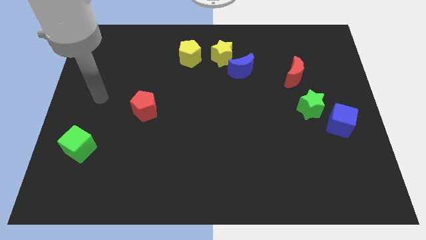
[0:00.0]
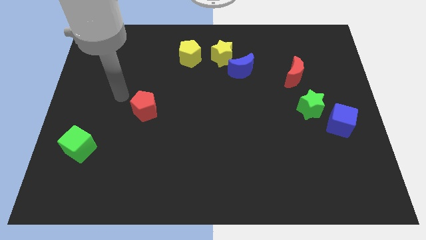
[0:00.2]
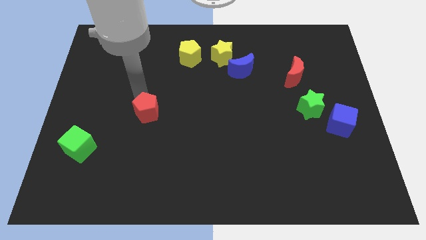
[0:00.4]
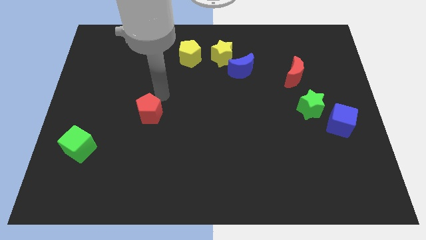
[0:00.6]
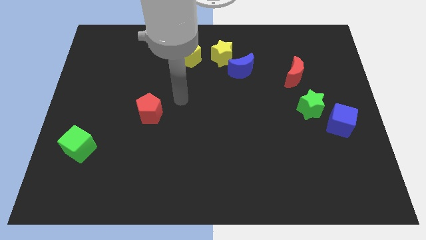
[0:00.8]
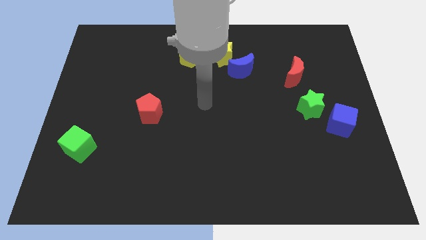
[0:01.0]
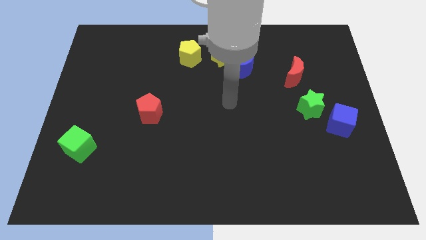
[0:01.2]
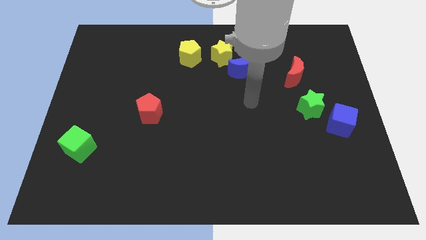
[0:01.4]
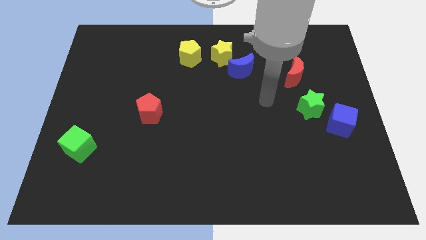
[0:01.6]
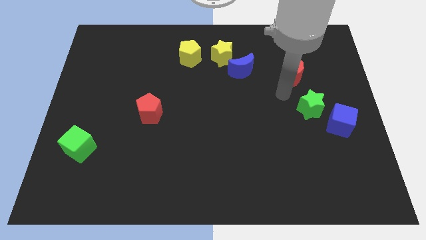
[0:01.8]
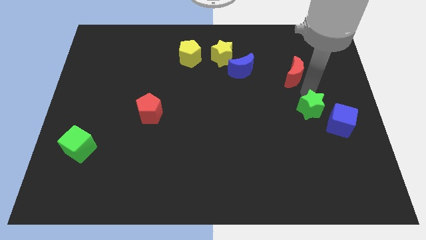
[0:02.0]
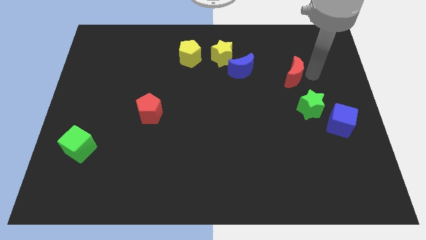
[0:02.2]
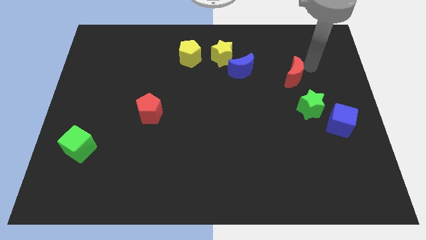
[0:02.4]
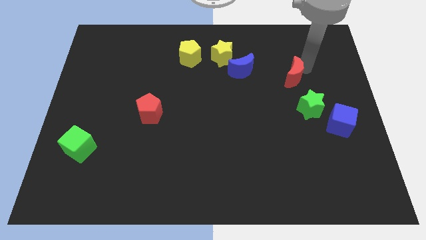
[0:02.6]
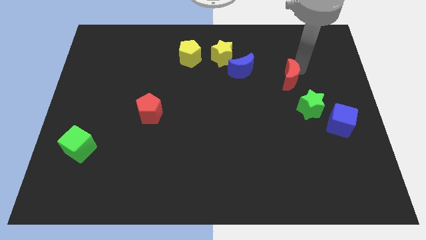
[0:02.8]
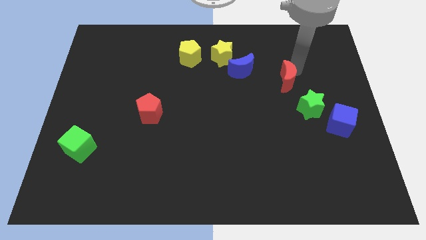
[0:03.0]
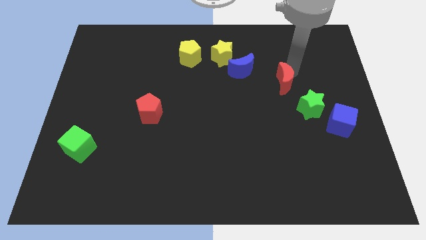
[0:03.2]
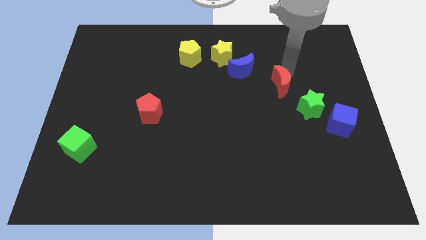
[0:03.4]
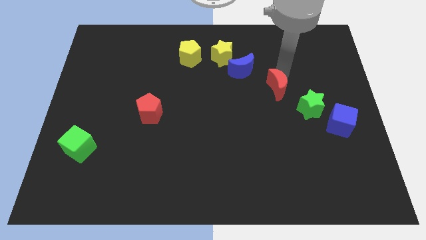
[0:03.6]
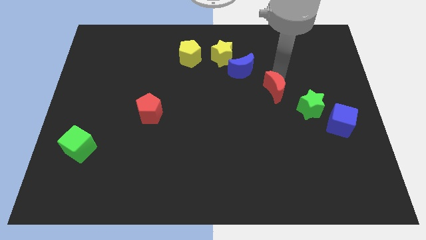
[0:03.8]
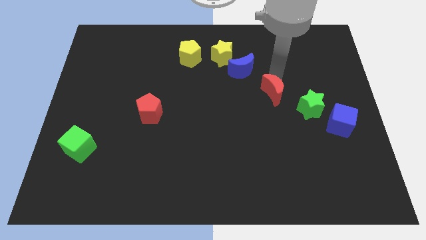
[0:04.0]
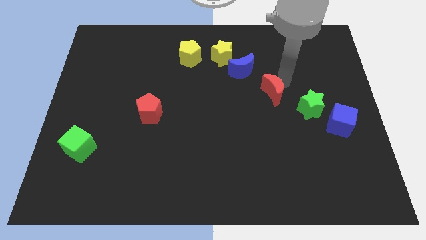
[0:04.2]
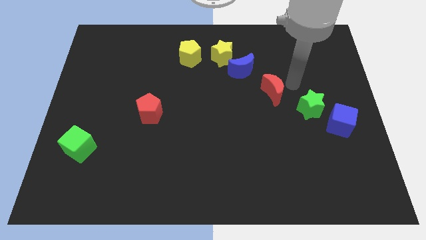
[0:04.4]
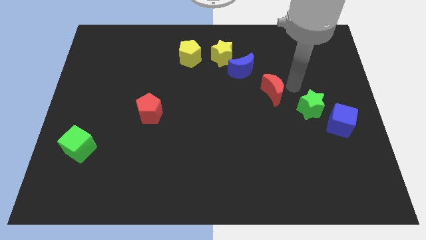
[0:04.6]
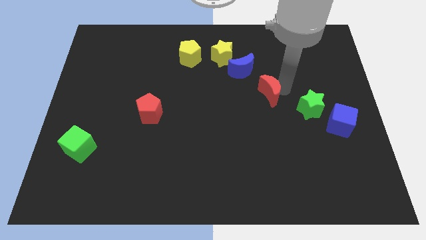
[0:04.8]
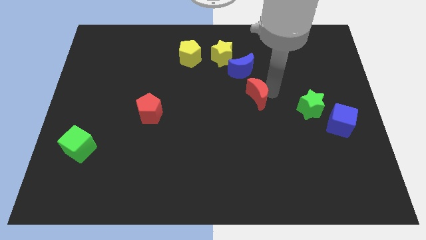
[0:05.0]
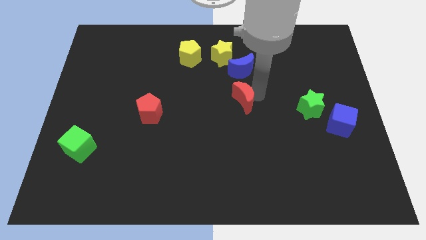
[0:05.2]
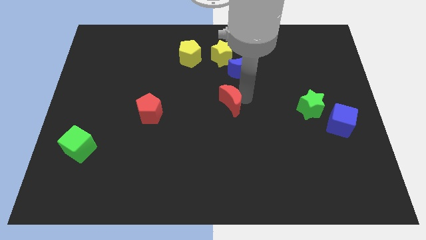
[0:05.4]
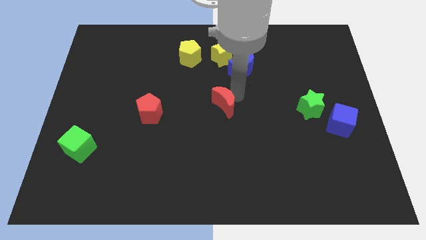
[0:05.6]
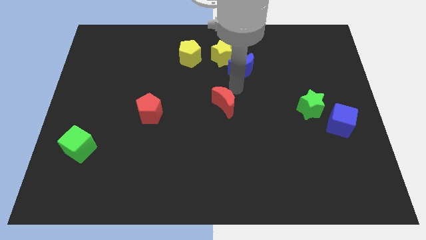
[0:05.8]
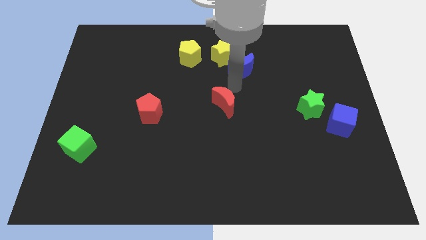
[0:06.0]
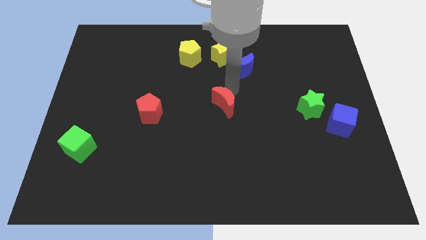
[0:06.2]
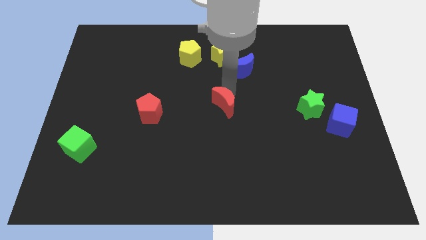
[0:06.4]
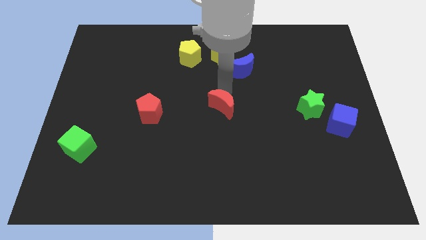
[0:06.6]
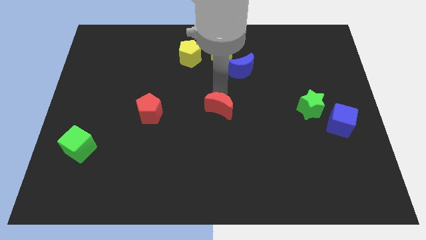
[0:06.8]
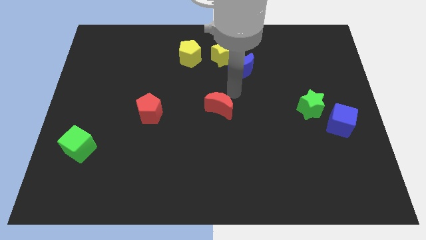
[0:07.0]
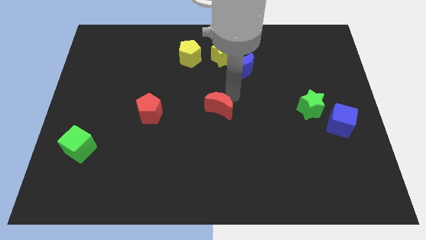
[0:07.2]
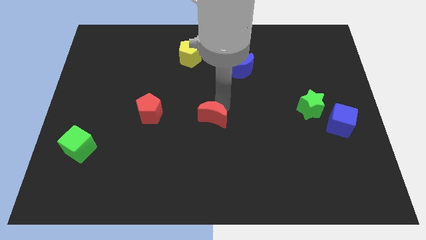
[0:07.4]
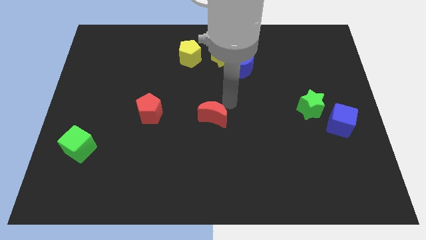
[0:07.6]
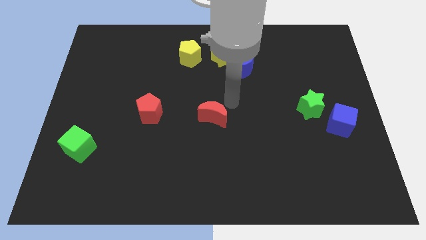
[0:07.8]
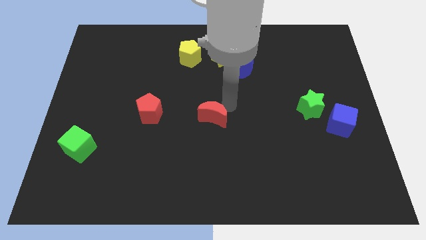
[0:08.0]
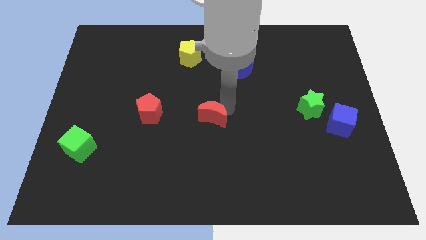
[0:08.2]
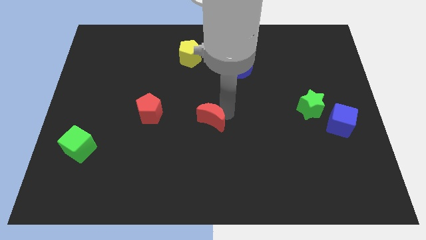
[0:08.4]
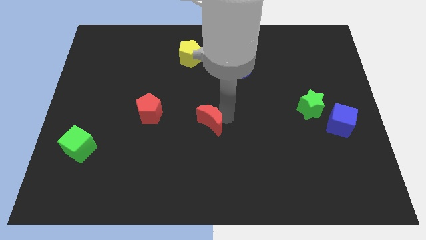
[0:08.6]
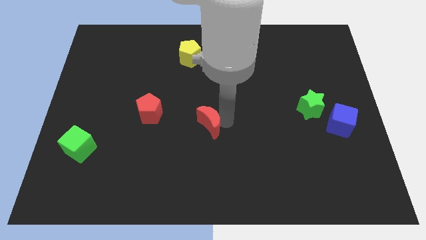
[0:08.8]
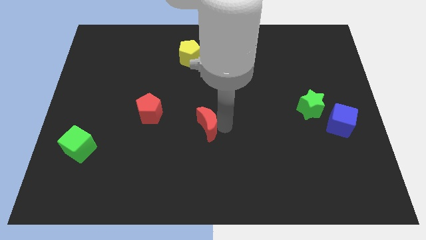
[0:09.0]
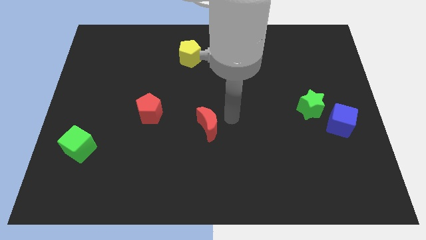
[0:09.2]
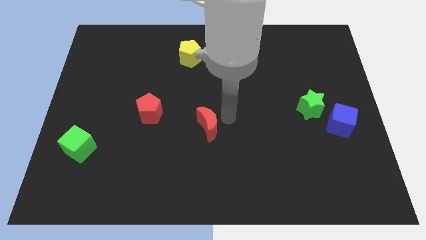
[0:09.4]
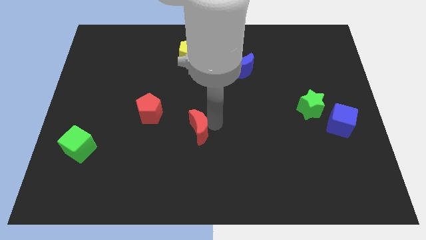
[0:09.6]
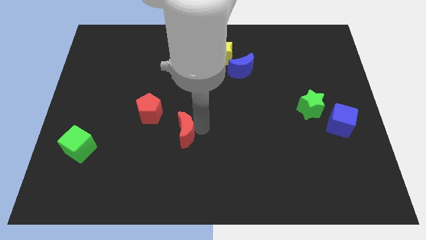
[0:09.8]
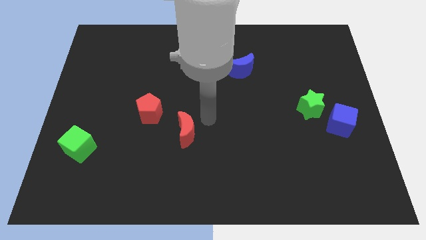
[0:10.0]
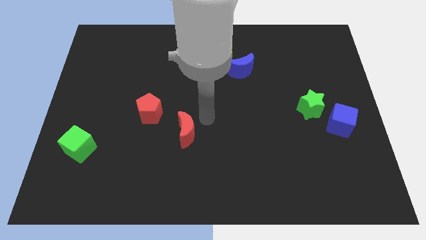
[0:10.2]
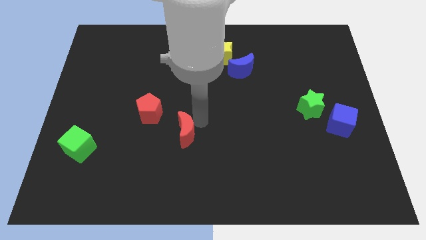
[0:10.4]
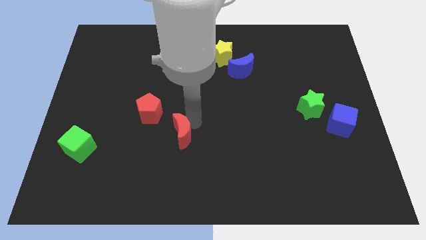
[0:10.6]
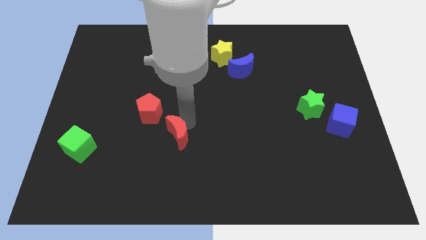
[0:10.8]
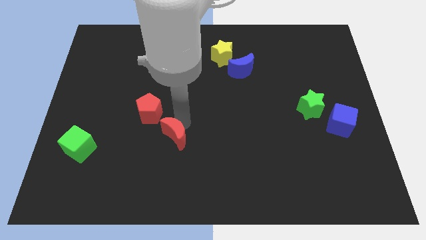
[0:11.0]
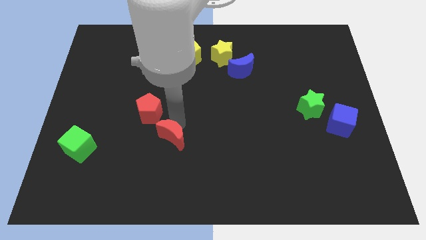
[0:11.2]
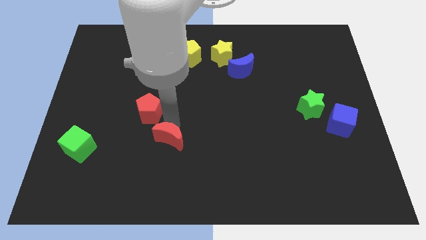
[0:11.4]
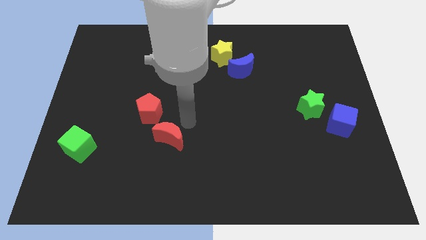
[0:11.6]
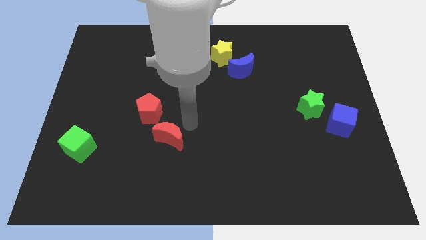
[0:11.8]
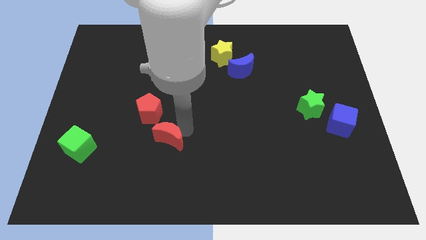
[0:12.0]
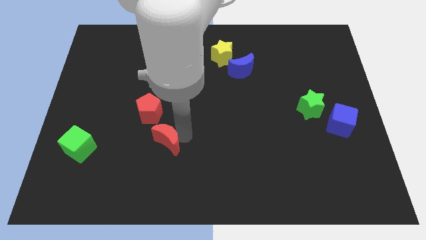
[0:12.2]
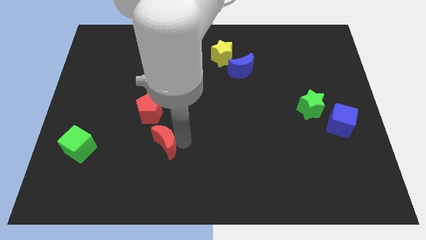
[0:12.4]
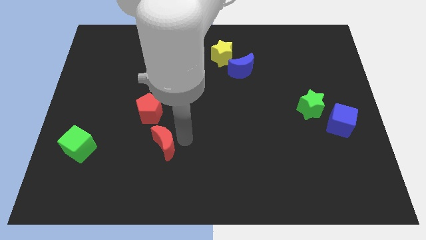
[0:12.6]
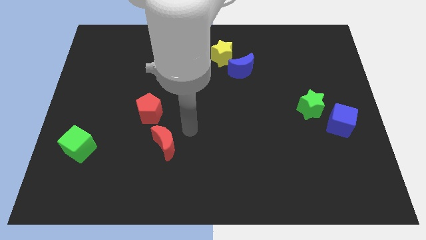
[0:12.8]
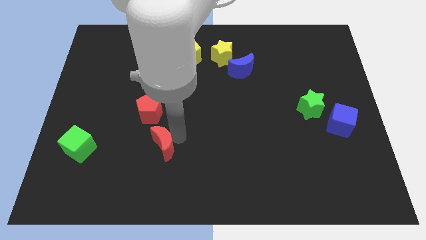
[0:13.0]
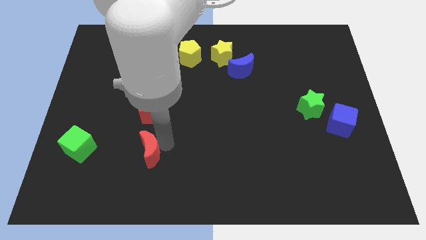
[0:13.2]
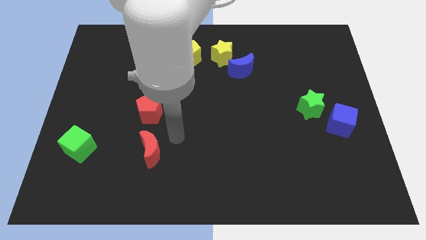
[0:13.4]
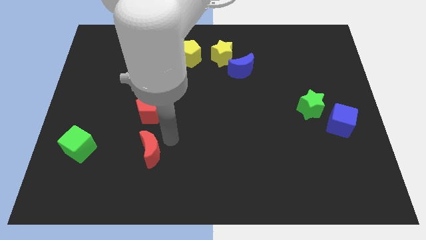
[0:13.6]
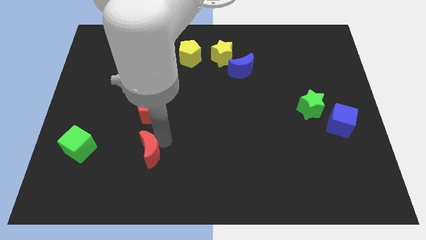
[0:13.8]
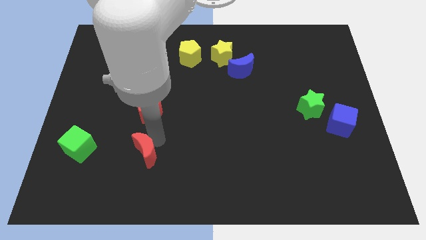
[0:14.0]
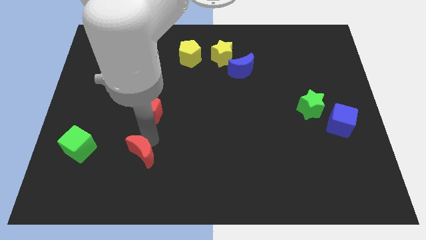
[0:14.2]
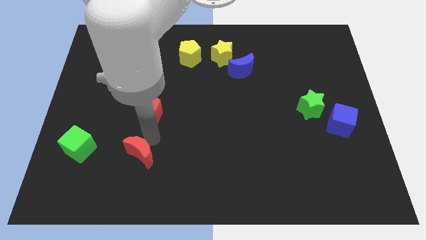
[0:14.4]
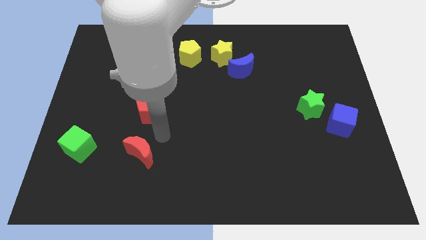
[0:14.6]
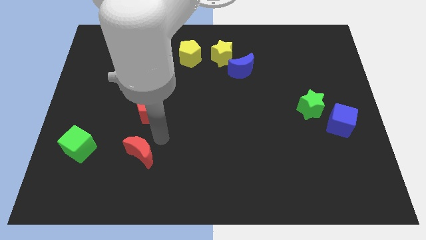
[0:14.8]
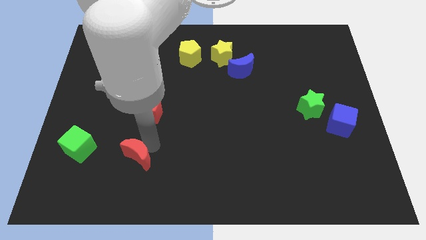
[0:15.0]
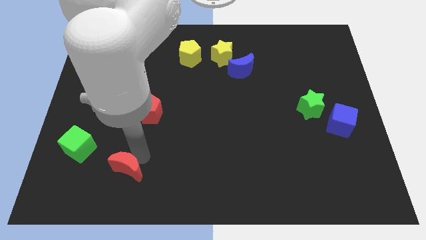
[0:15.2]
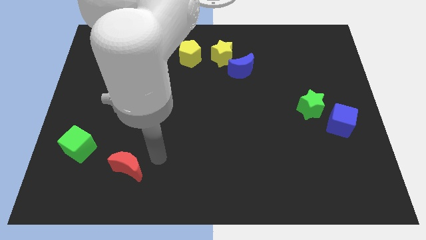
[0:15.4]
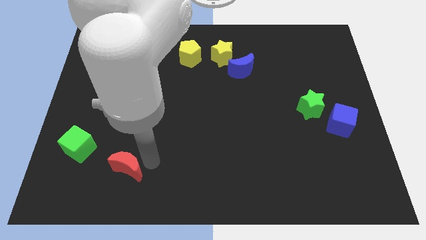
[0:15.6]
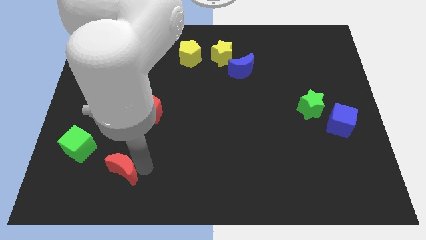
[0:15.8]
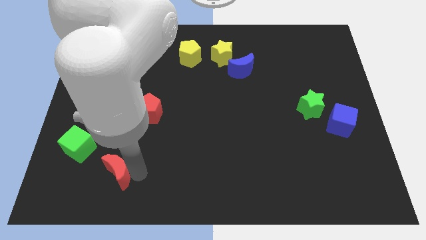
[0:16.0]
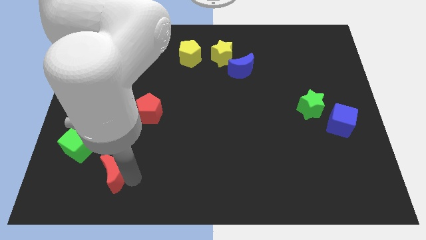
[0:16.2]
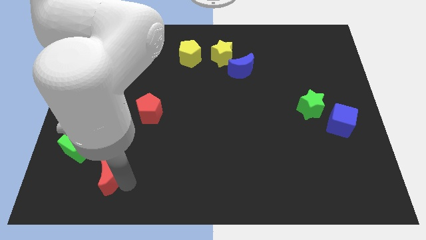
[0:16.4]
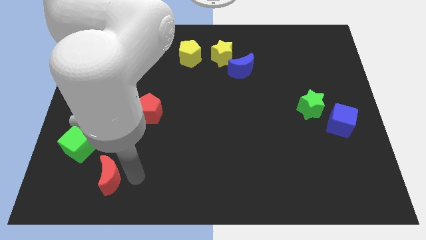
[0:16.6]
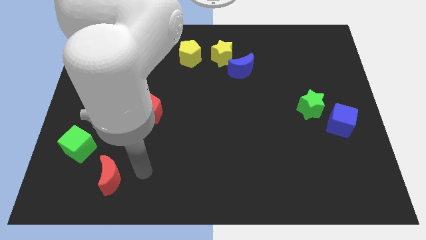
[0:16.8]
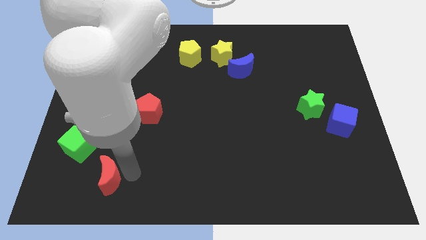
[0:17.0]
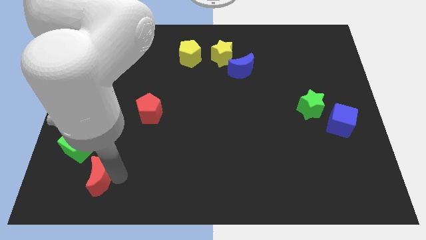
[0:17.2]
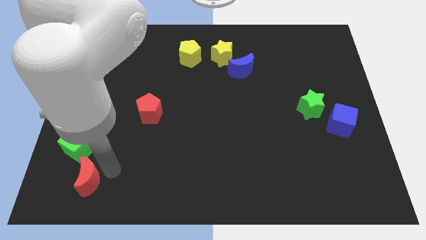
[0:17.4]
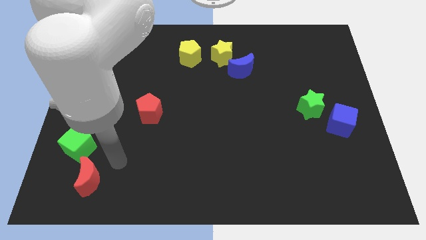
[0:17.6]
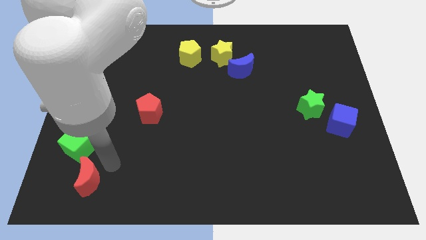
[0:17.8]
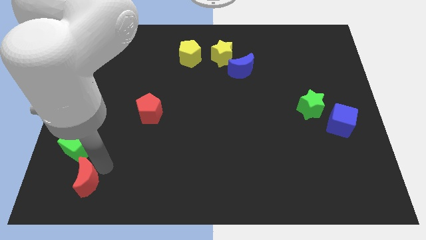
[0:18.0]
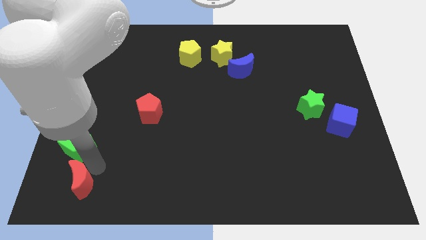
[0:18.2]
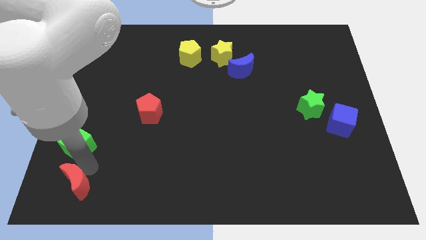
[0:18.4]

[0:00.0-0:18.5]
put the red moon to the bottom left
